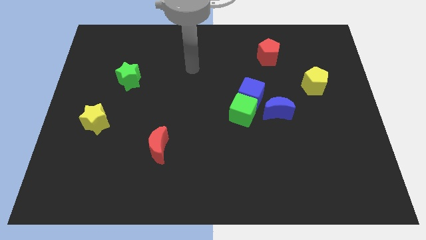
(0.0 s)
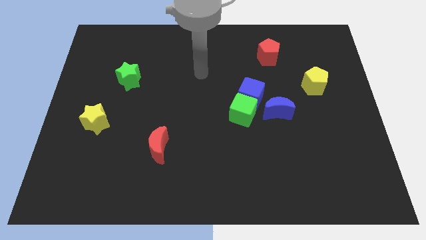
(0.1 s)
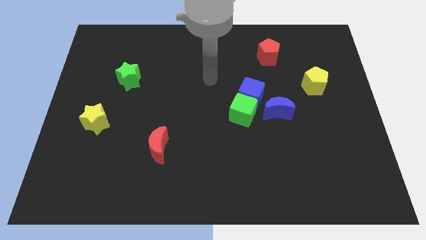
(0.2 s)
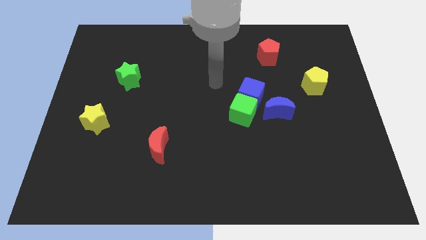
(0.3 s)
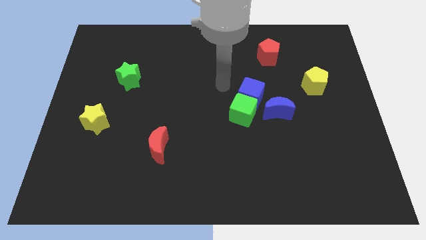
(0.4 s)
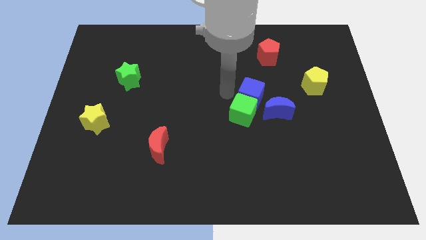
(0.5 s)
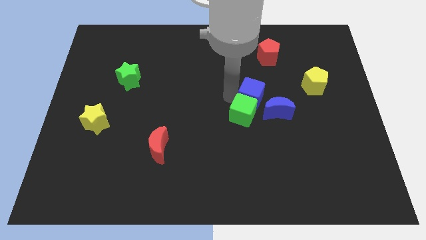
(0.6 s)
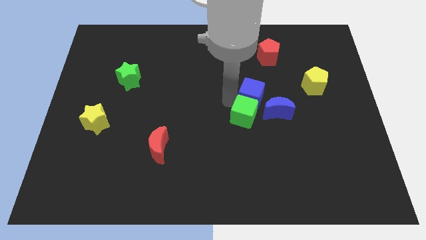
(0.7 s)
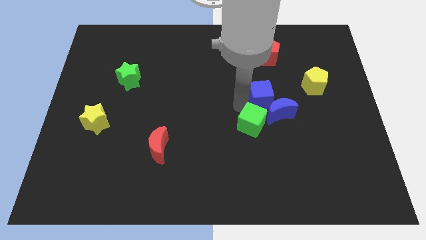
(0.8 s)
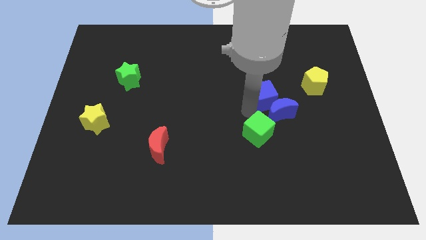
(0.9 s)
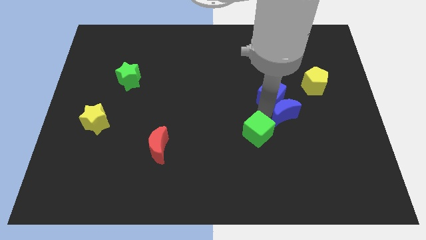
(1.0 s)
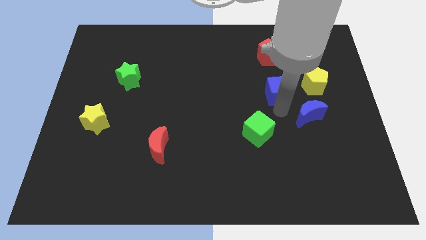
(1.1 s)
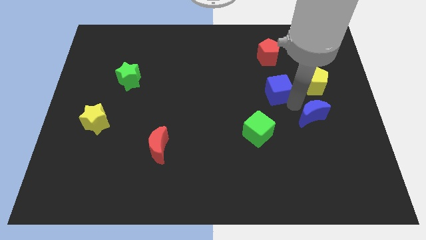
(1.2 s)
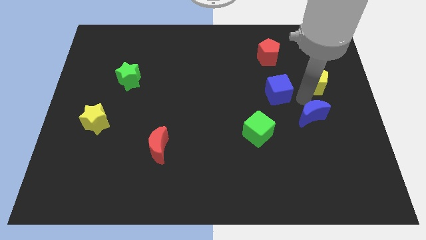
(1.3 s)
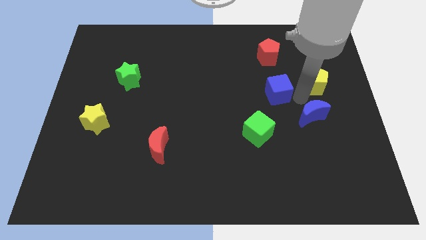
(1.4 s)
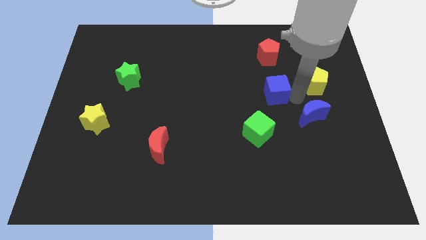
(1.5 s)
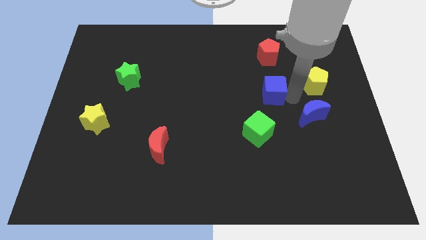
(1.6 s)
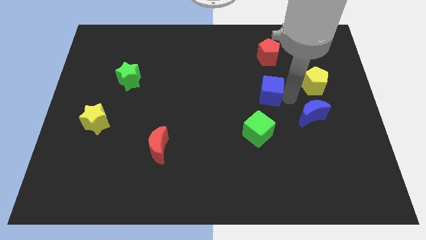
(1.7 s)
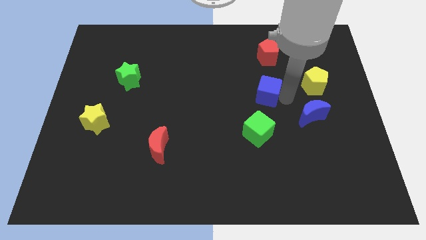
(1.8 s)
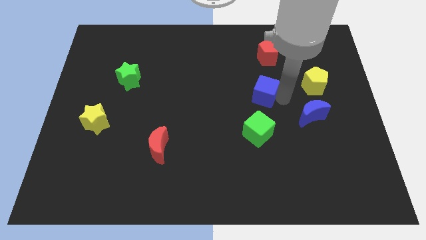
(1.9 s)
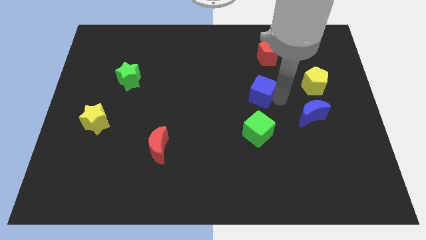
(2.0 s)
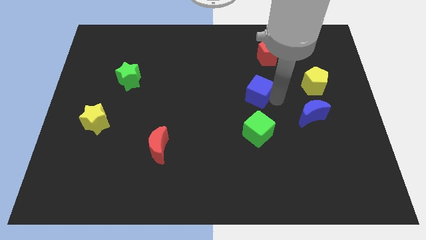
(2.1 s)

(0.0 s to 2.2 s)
pull the blue cube apart from the green cube and blue moon

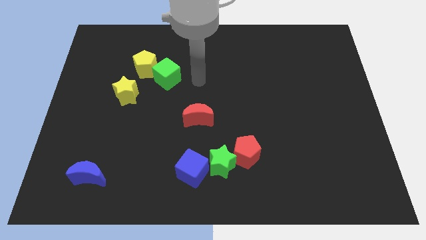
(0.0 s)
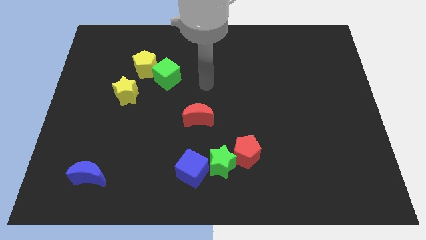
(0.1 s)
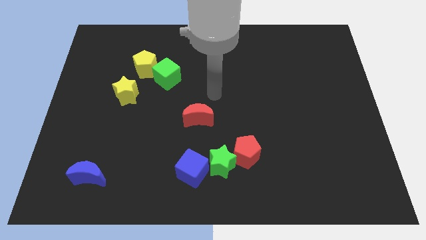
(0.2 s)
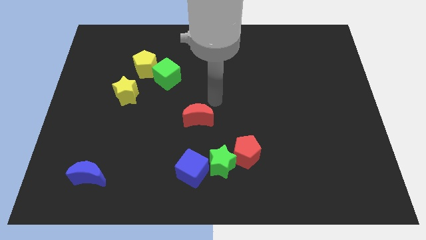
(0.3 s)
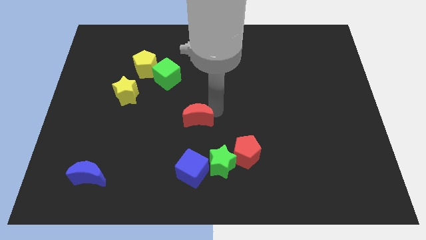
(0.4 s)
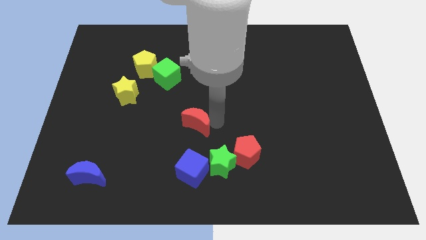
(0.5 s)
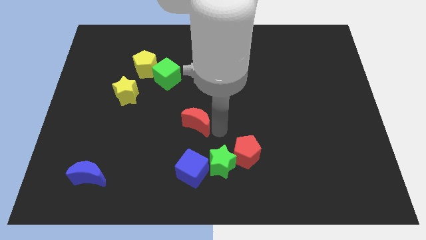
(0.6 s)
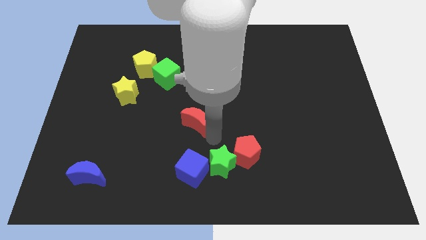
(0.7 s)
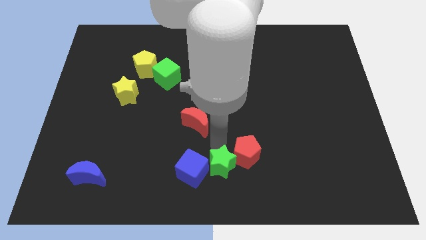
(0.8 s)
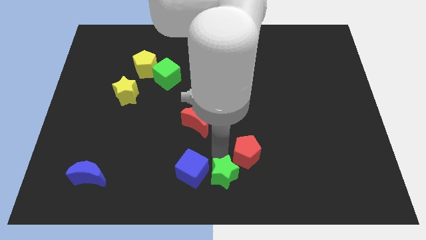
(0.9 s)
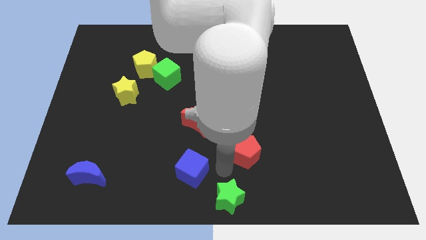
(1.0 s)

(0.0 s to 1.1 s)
pull the red pentagon apart from the green star

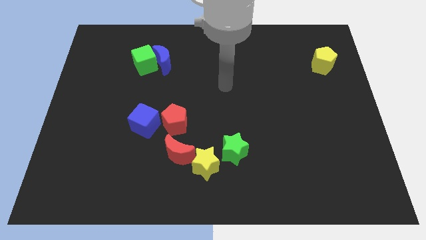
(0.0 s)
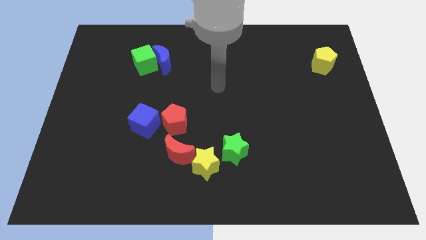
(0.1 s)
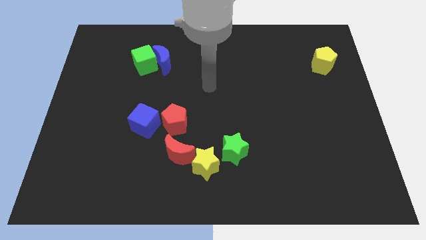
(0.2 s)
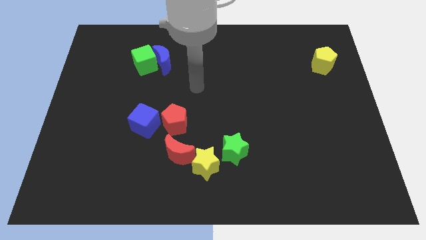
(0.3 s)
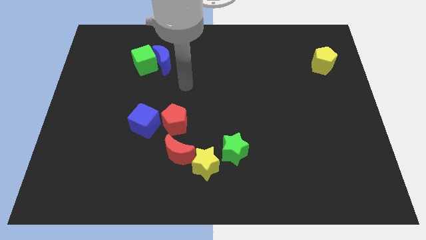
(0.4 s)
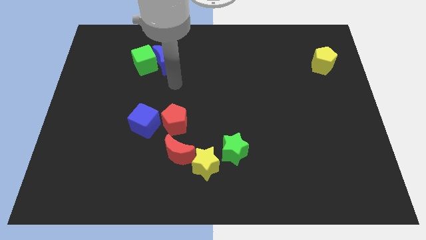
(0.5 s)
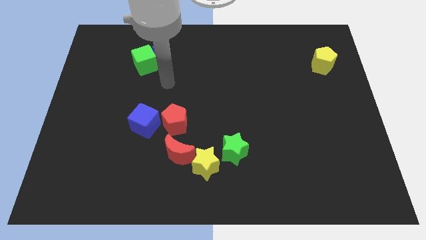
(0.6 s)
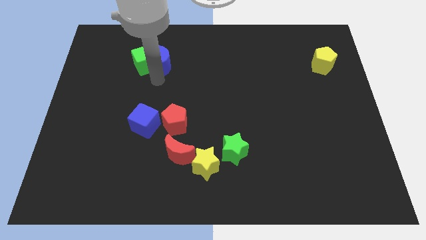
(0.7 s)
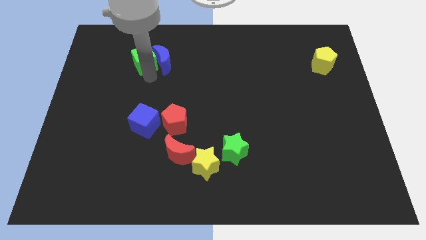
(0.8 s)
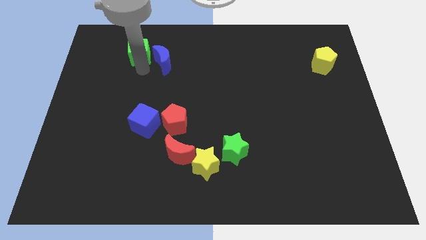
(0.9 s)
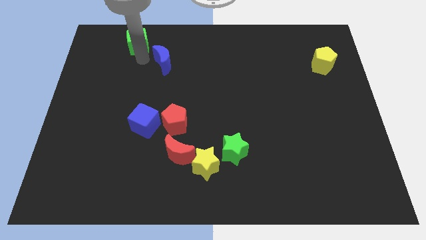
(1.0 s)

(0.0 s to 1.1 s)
pull the blue moon apart from the green cube

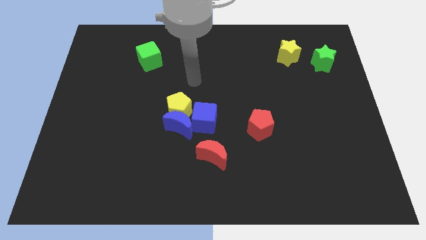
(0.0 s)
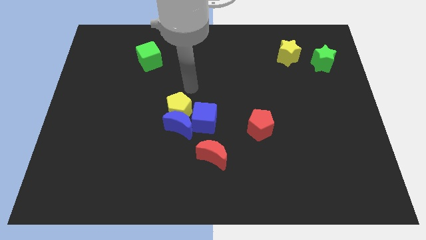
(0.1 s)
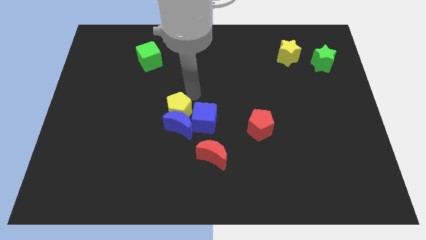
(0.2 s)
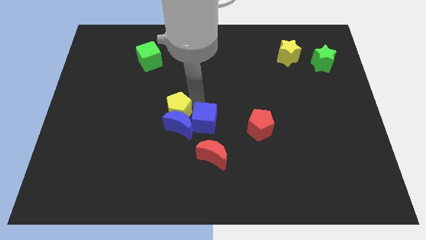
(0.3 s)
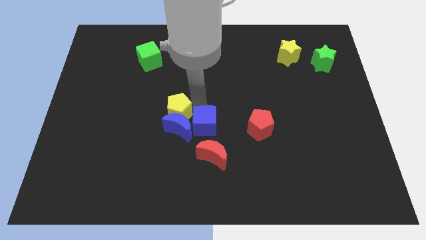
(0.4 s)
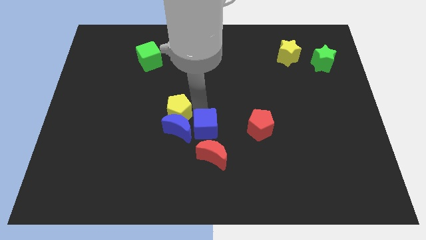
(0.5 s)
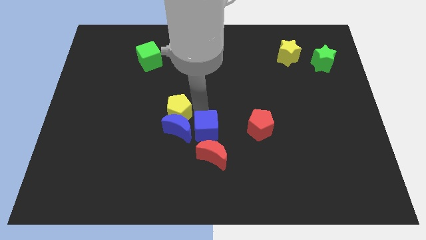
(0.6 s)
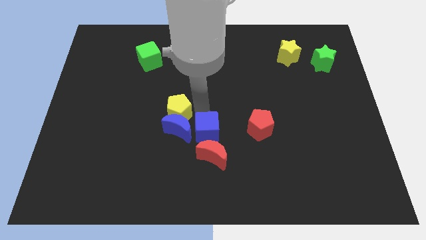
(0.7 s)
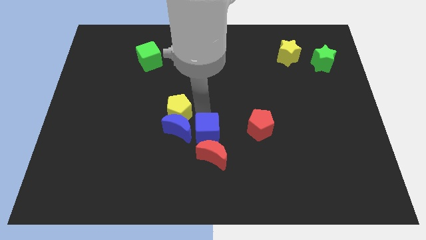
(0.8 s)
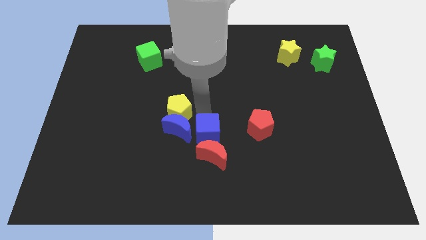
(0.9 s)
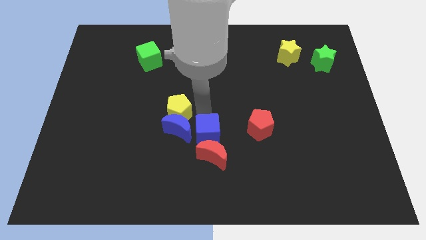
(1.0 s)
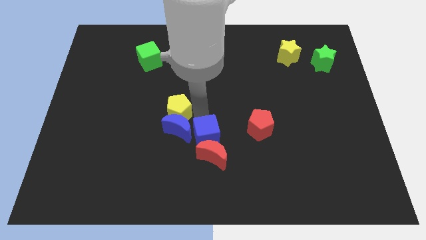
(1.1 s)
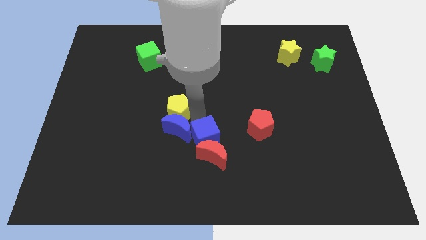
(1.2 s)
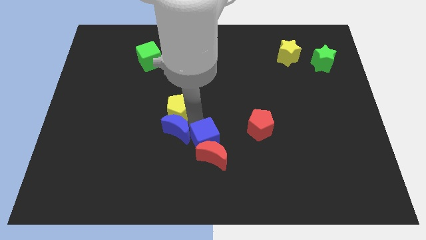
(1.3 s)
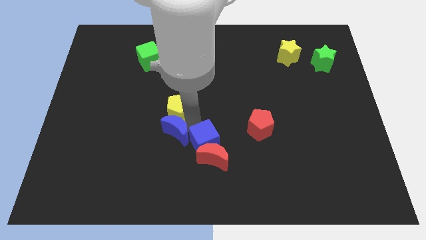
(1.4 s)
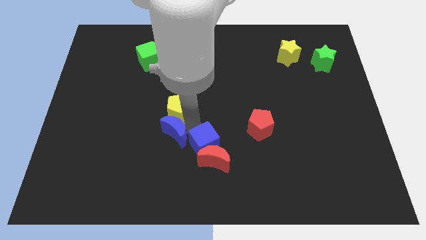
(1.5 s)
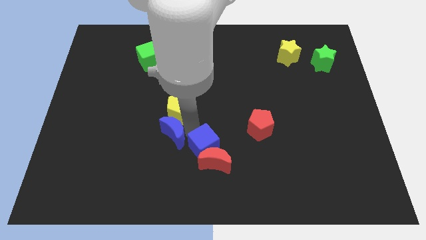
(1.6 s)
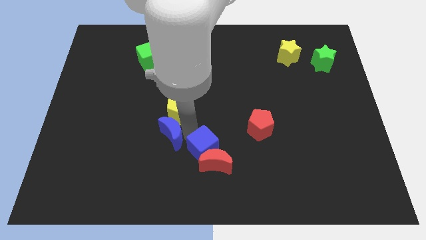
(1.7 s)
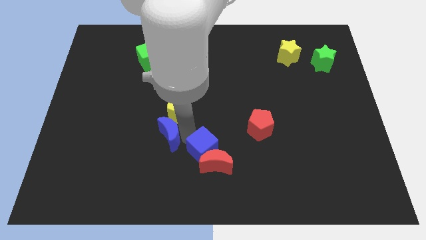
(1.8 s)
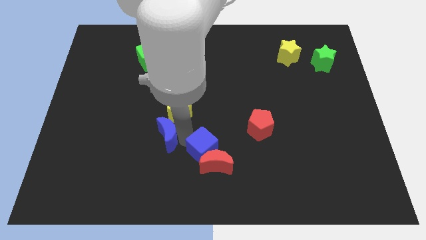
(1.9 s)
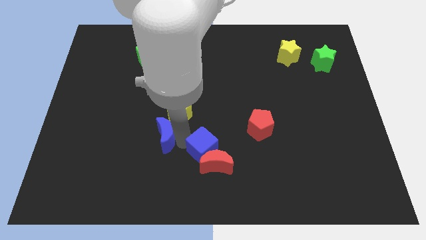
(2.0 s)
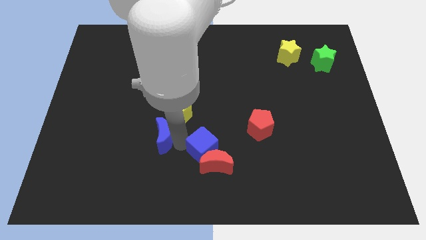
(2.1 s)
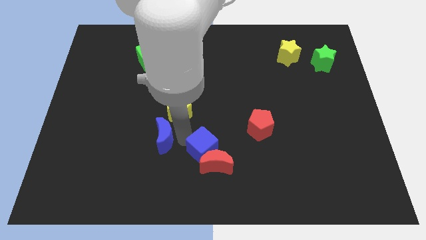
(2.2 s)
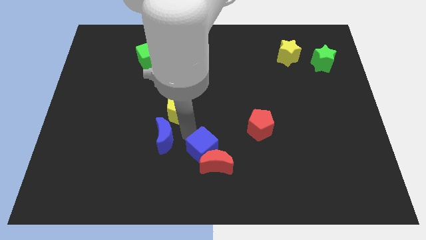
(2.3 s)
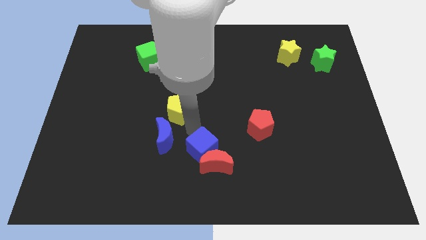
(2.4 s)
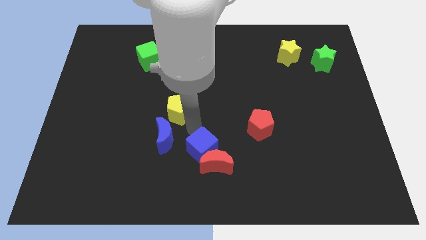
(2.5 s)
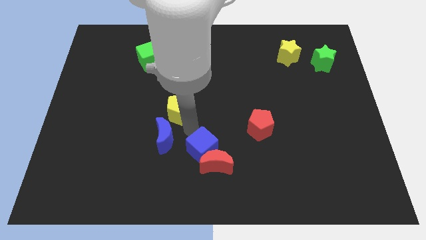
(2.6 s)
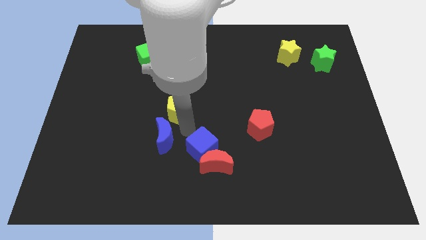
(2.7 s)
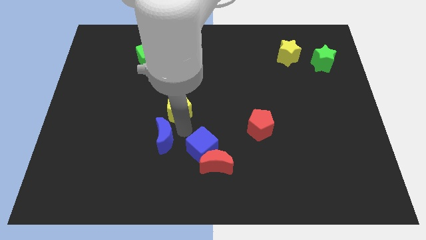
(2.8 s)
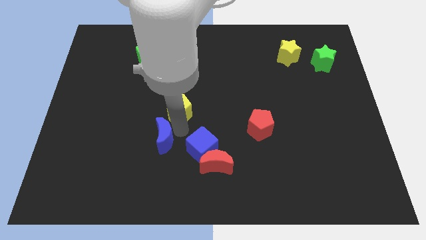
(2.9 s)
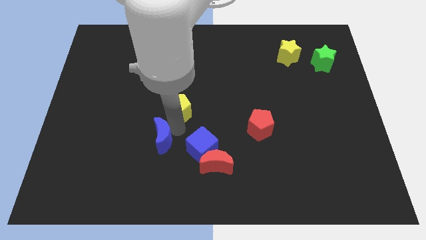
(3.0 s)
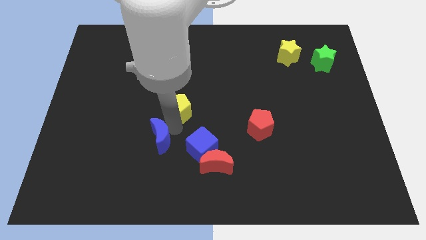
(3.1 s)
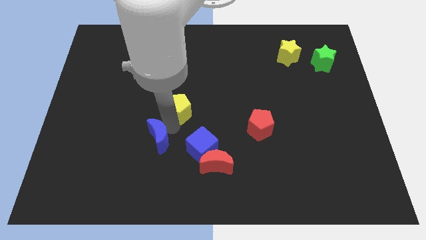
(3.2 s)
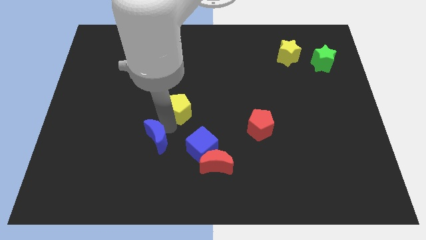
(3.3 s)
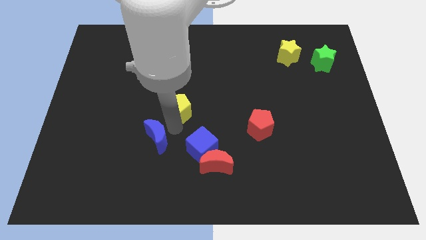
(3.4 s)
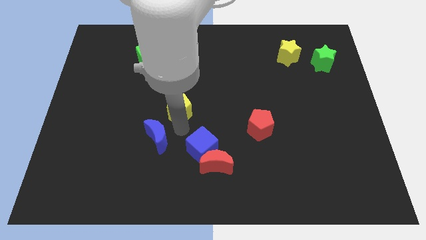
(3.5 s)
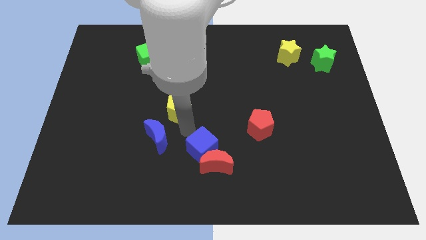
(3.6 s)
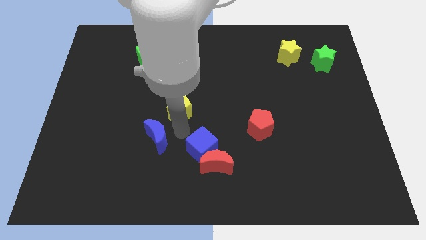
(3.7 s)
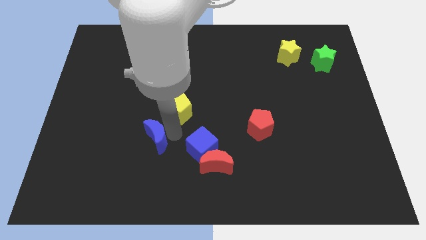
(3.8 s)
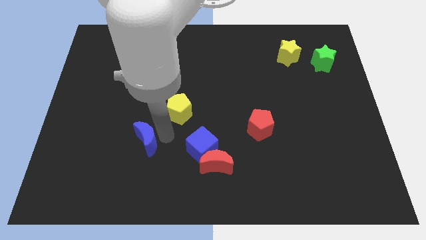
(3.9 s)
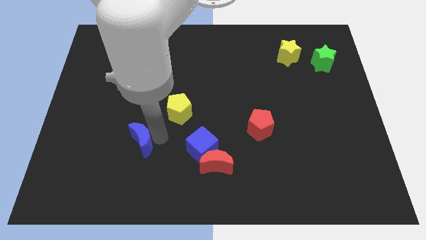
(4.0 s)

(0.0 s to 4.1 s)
pull the blue moon apart from the yellow pentagon and blue cube

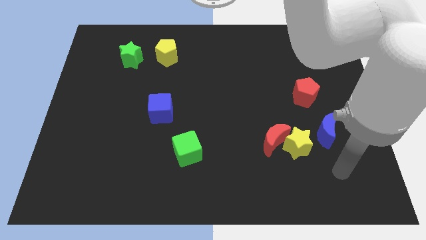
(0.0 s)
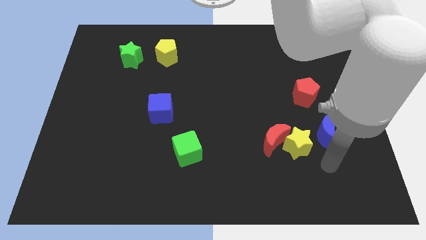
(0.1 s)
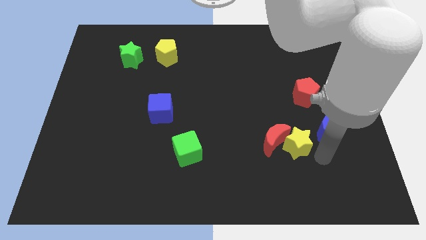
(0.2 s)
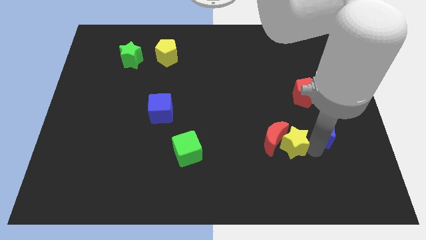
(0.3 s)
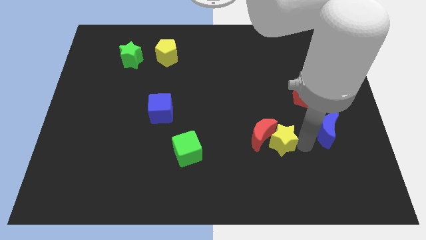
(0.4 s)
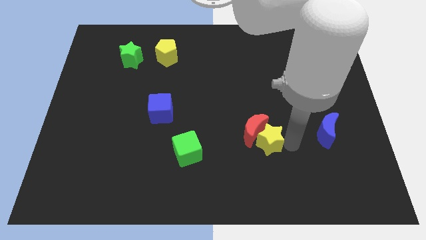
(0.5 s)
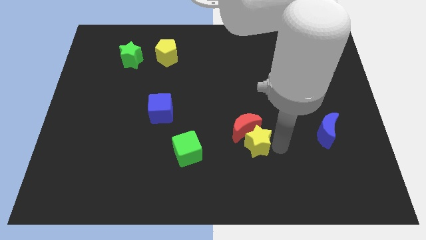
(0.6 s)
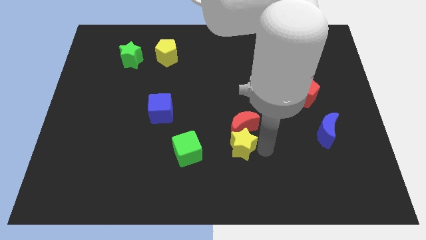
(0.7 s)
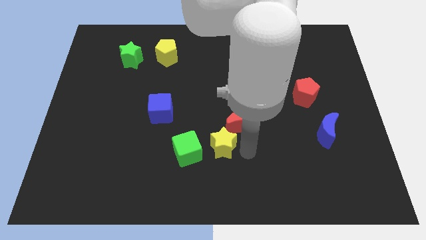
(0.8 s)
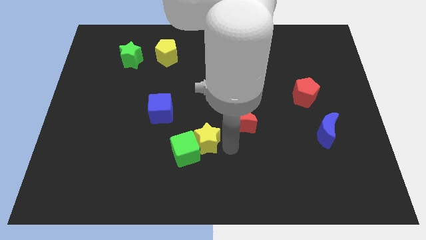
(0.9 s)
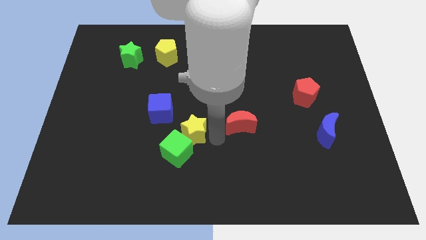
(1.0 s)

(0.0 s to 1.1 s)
pull the red moon apart from the yellow star
